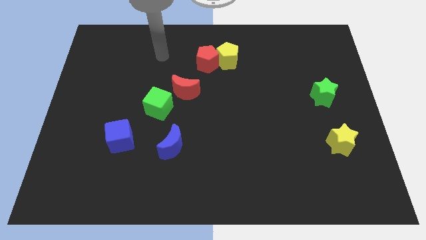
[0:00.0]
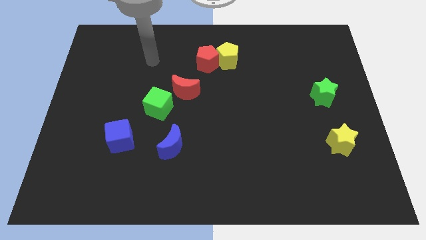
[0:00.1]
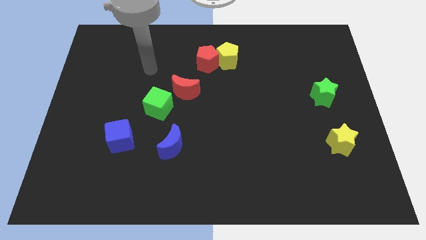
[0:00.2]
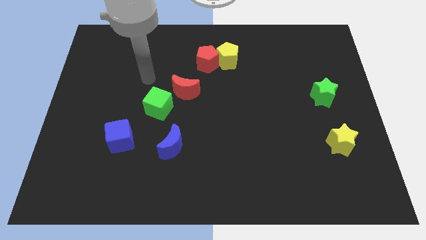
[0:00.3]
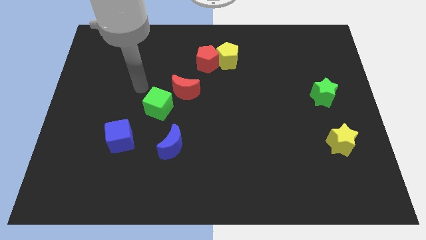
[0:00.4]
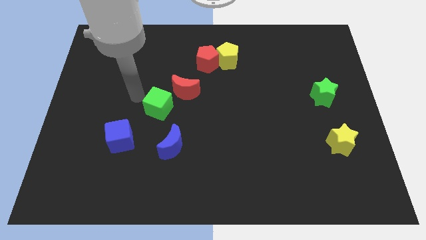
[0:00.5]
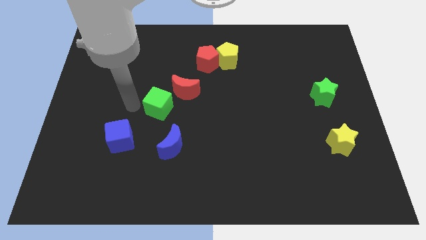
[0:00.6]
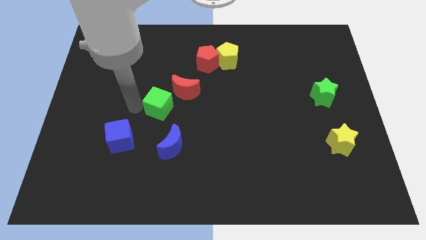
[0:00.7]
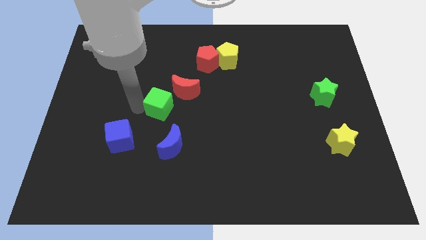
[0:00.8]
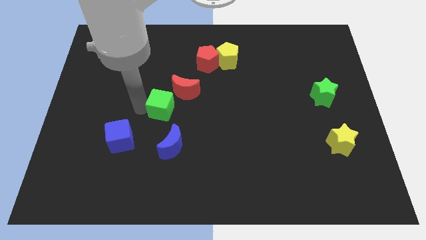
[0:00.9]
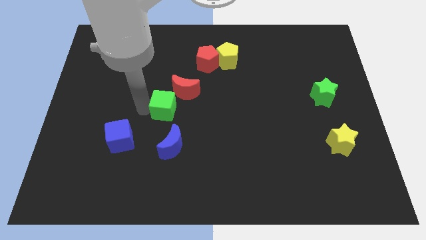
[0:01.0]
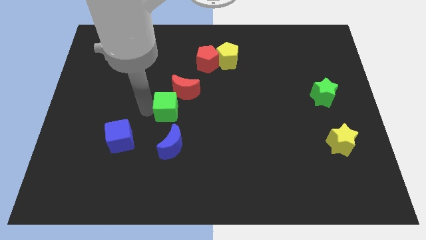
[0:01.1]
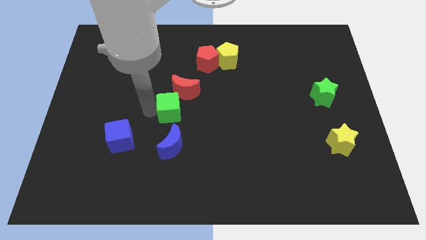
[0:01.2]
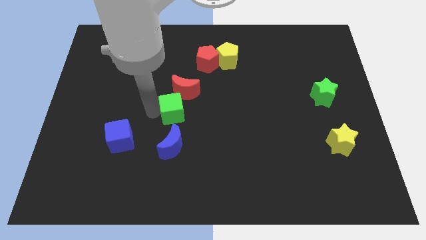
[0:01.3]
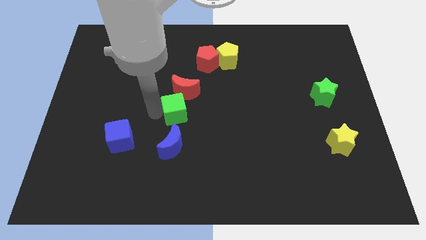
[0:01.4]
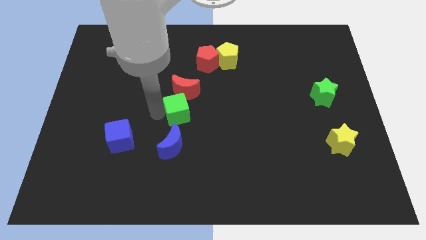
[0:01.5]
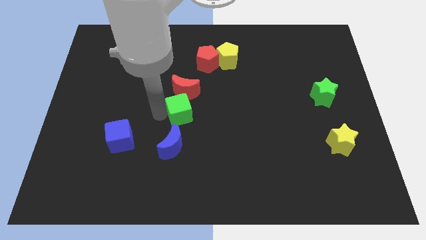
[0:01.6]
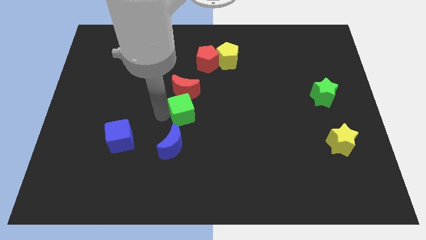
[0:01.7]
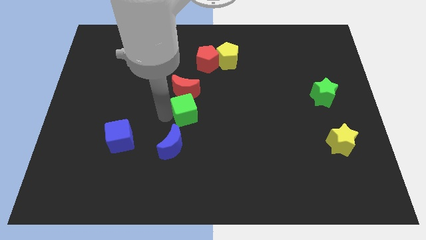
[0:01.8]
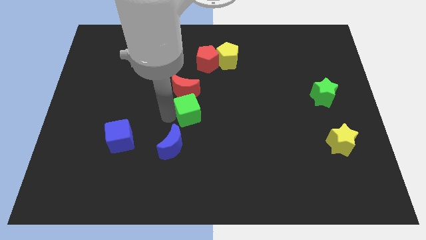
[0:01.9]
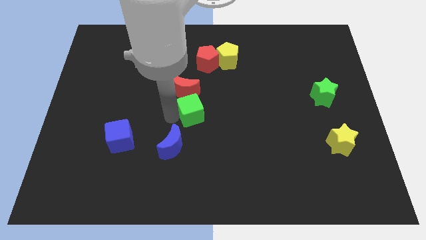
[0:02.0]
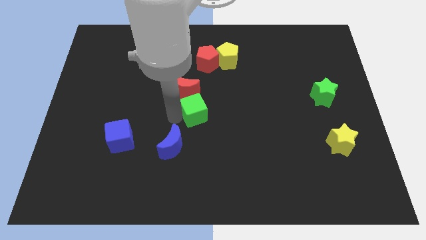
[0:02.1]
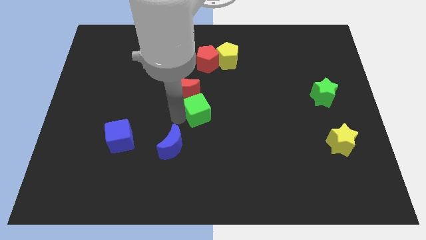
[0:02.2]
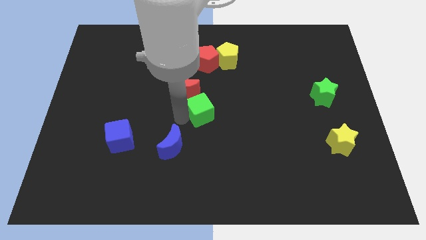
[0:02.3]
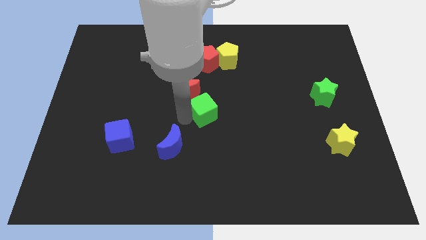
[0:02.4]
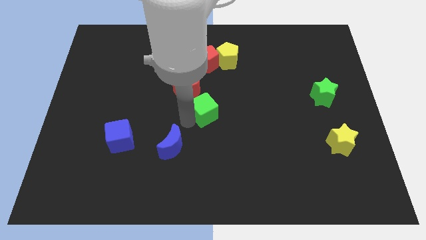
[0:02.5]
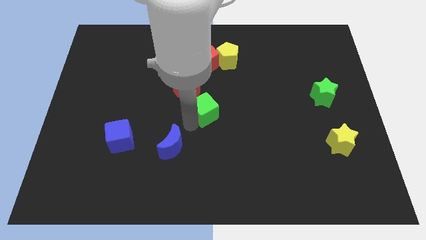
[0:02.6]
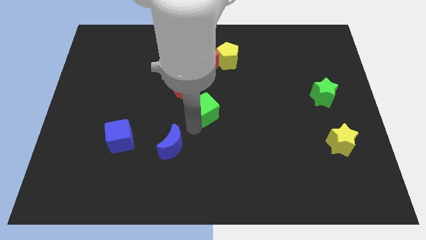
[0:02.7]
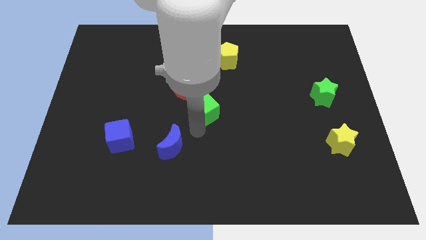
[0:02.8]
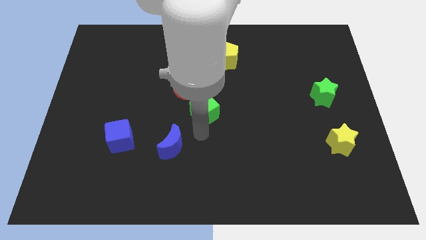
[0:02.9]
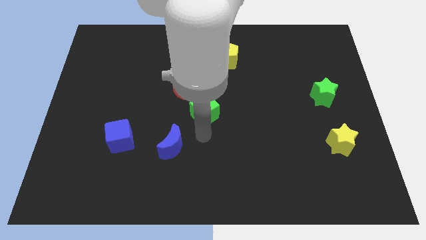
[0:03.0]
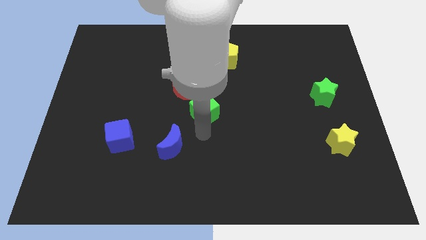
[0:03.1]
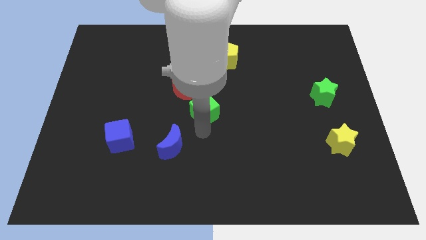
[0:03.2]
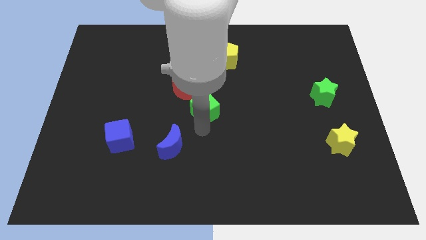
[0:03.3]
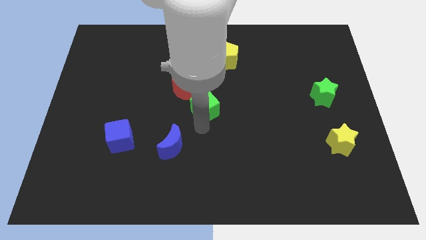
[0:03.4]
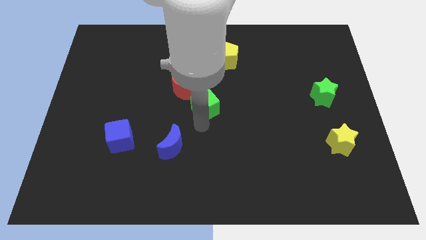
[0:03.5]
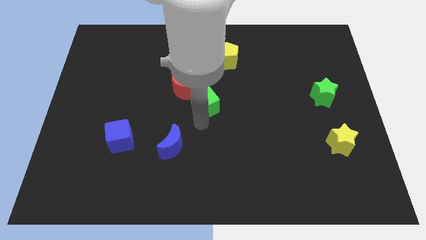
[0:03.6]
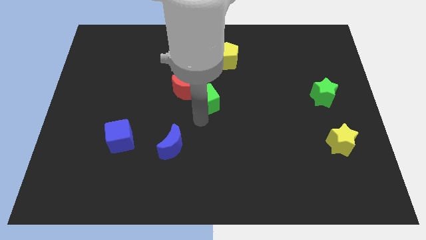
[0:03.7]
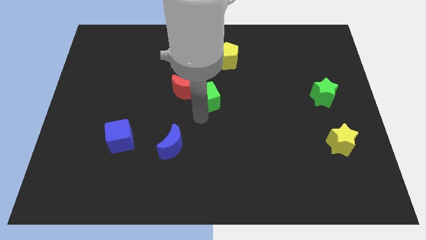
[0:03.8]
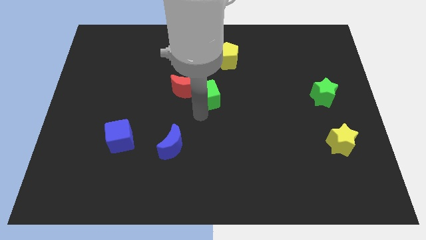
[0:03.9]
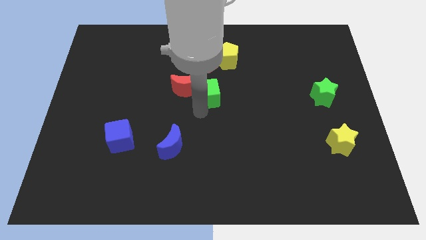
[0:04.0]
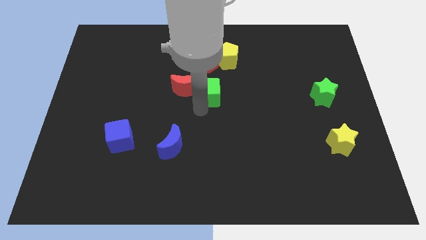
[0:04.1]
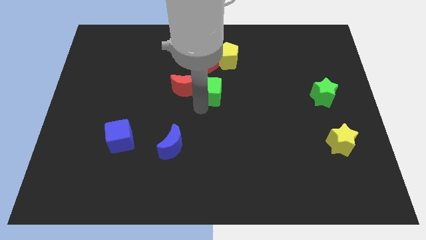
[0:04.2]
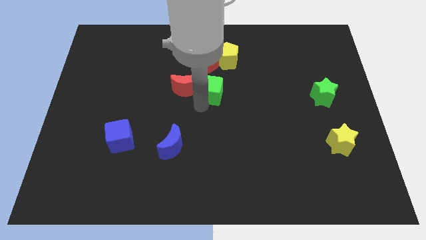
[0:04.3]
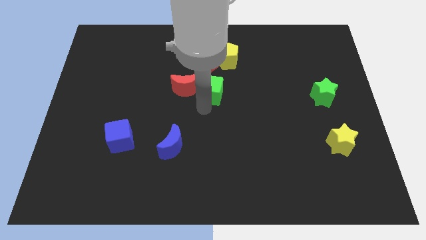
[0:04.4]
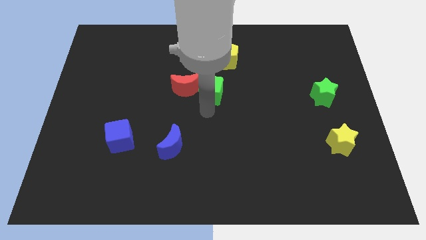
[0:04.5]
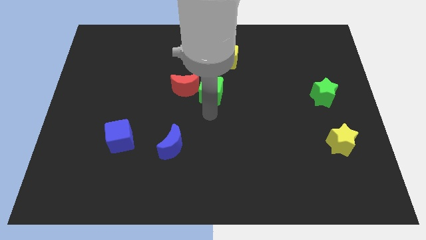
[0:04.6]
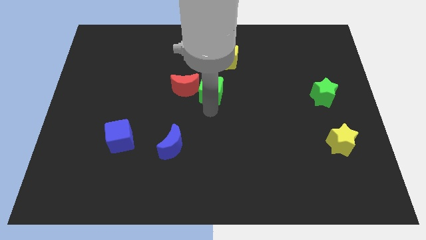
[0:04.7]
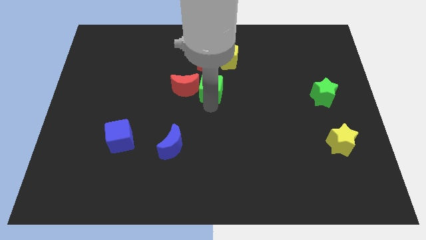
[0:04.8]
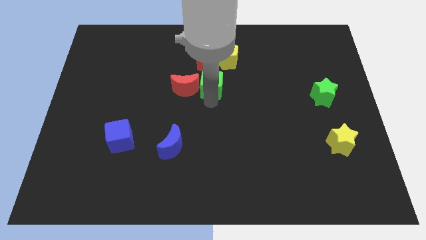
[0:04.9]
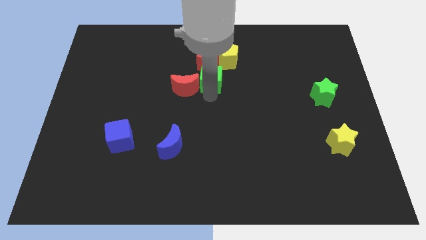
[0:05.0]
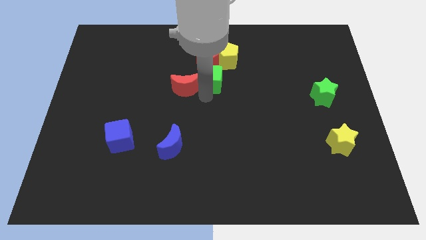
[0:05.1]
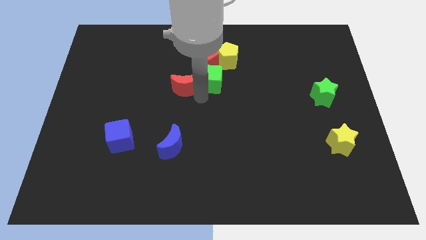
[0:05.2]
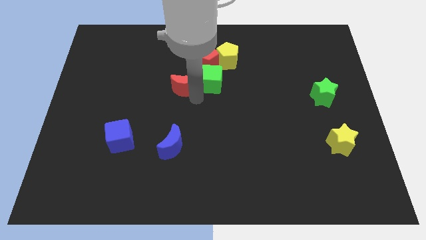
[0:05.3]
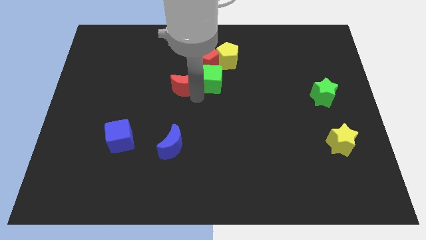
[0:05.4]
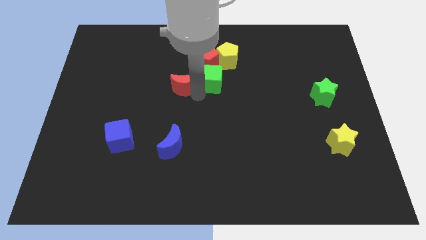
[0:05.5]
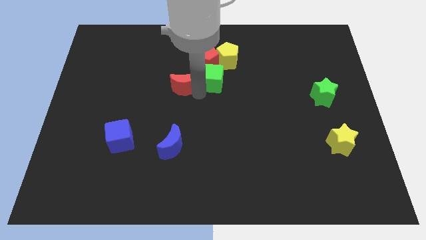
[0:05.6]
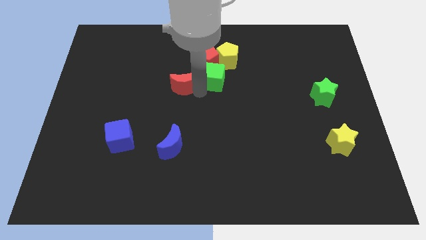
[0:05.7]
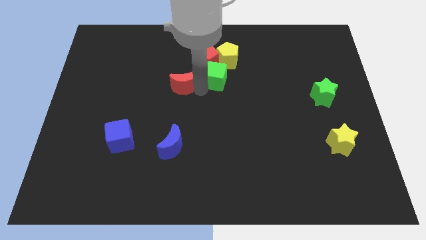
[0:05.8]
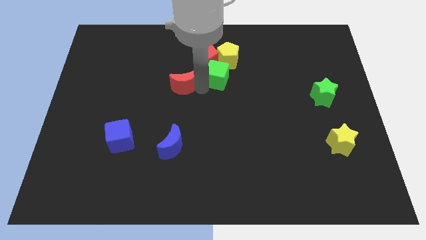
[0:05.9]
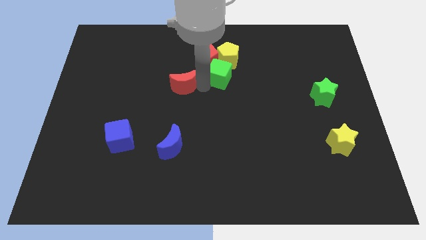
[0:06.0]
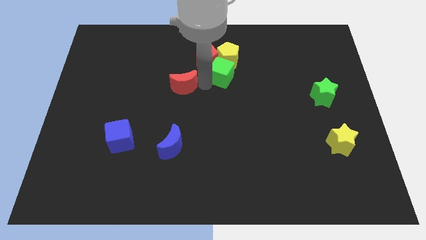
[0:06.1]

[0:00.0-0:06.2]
push the green cube to the yellow pentagon
